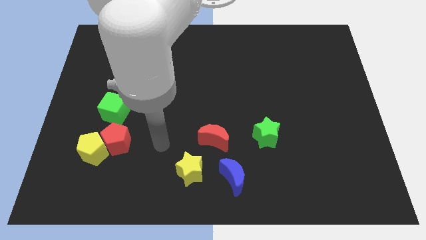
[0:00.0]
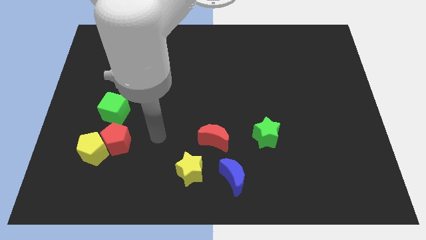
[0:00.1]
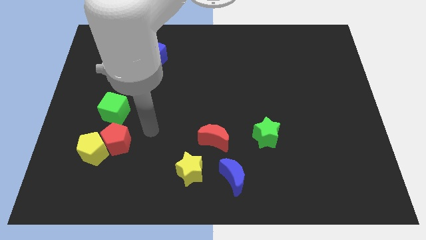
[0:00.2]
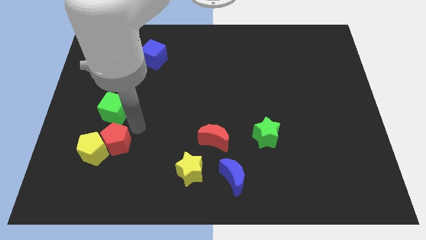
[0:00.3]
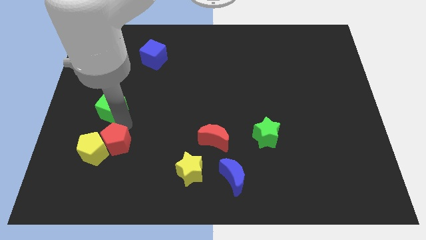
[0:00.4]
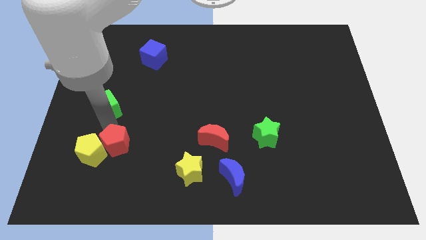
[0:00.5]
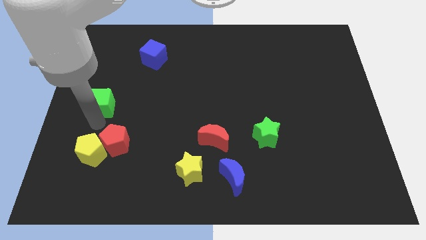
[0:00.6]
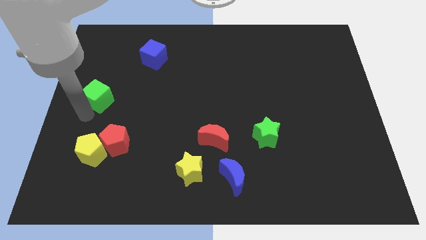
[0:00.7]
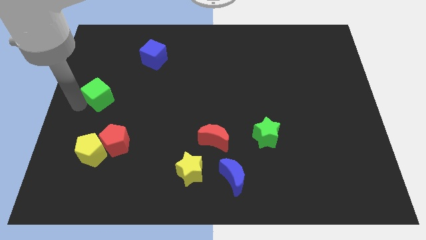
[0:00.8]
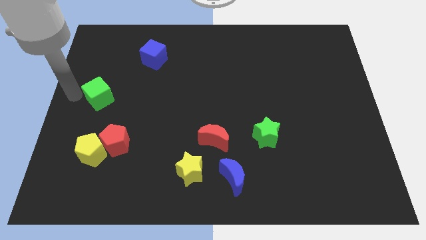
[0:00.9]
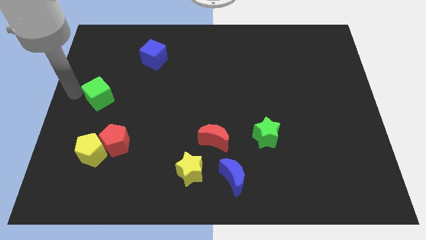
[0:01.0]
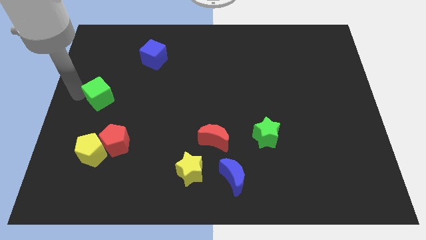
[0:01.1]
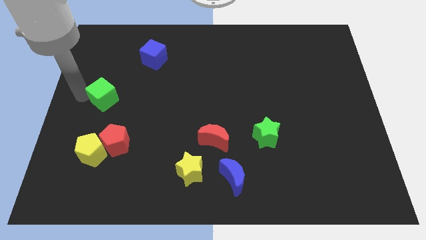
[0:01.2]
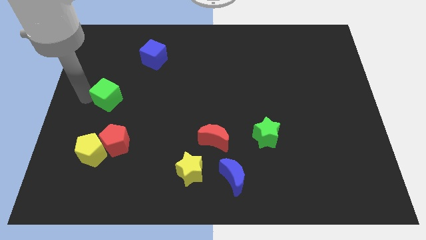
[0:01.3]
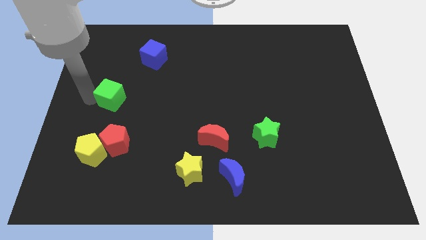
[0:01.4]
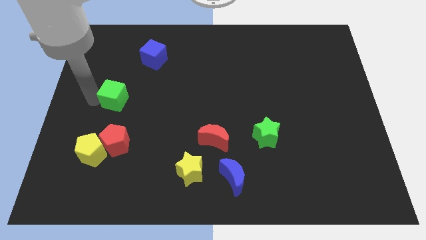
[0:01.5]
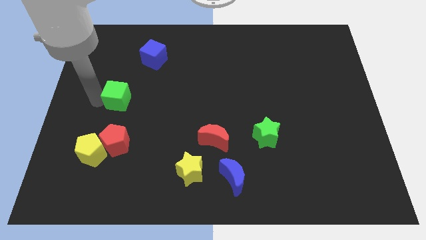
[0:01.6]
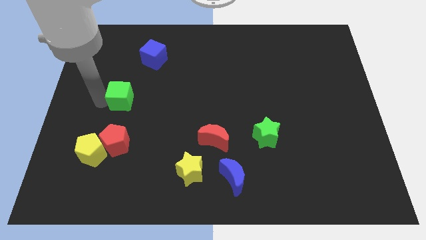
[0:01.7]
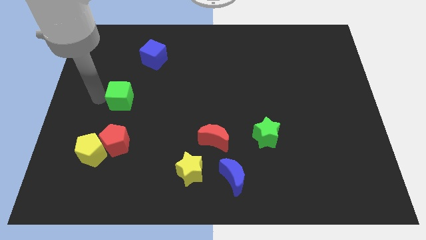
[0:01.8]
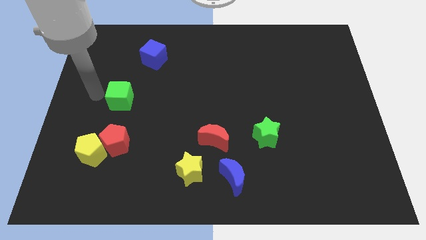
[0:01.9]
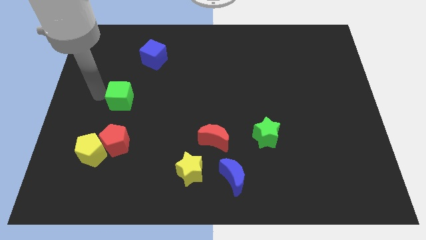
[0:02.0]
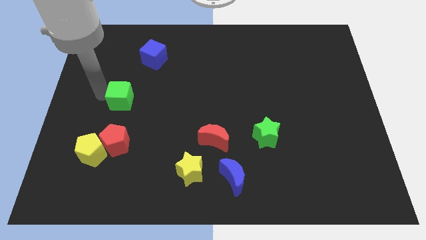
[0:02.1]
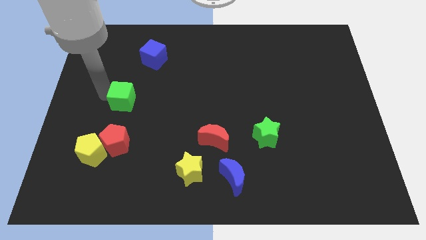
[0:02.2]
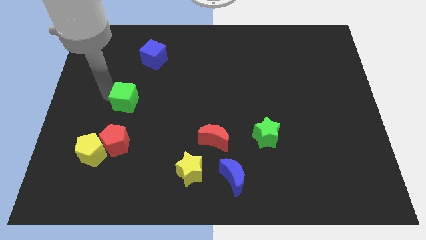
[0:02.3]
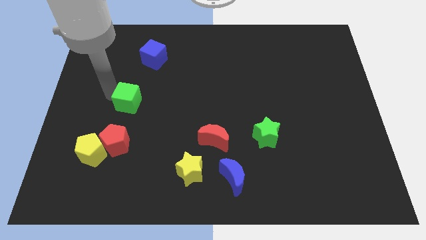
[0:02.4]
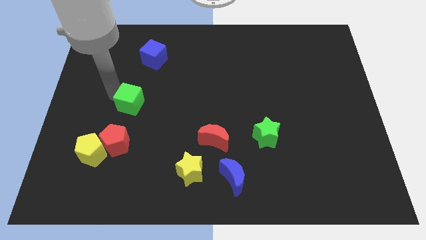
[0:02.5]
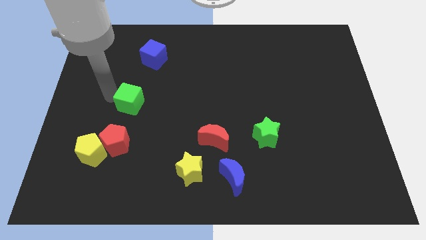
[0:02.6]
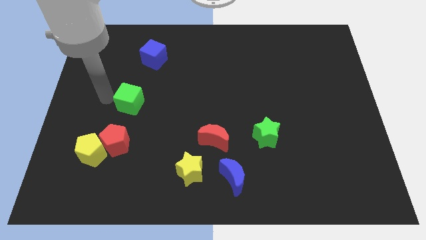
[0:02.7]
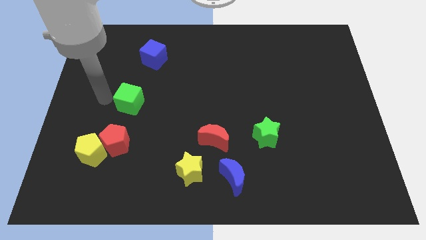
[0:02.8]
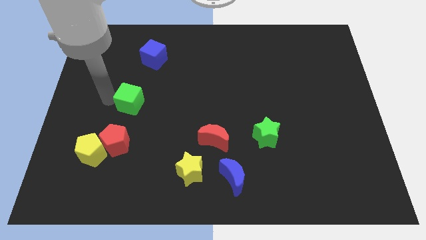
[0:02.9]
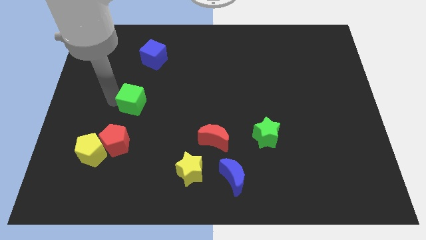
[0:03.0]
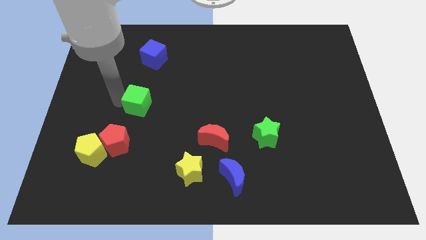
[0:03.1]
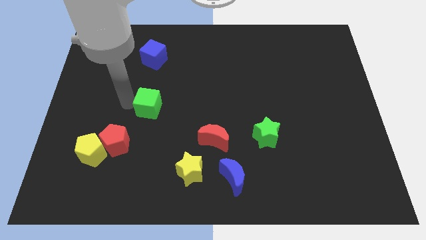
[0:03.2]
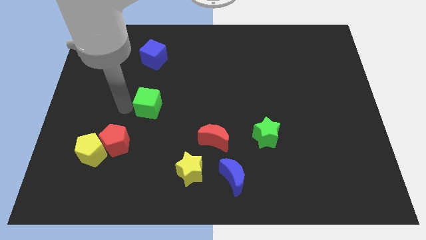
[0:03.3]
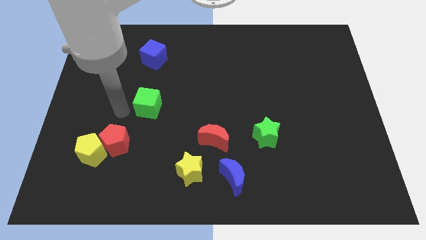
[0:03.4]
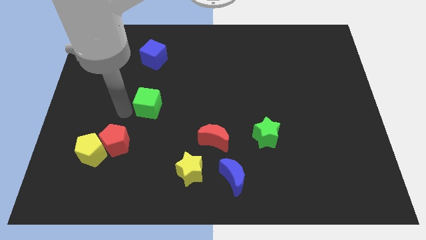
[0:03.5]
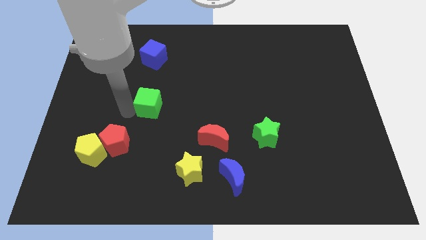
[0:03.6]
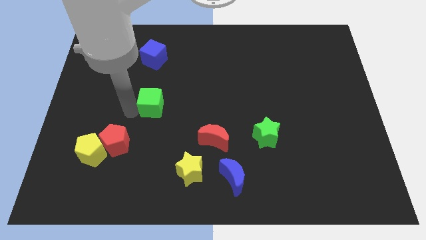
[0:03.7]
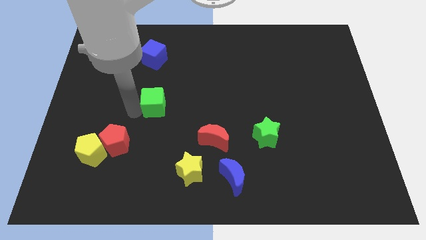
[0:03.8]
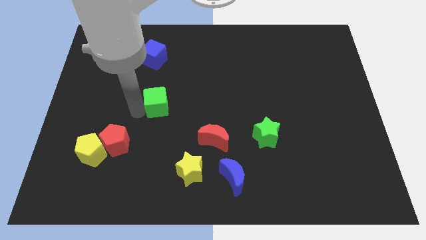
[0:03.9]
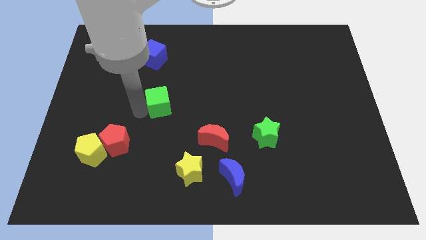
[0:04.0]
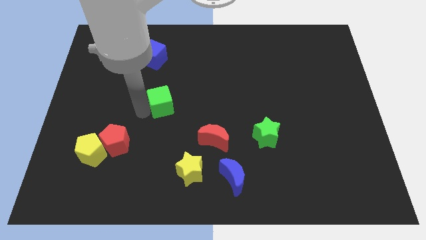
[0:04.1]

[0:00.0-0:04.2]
put the green cube to the middle

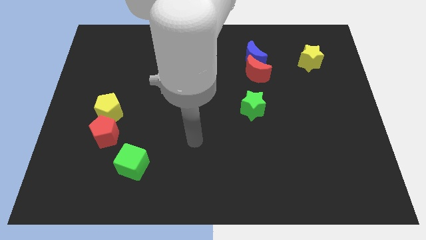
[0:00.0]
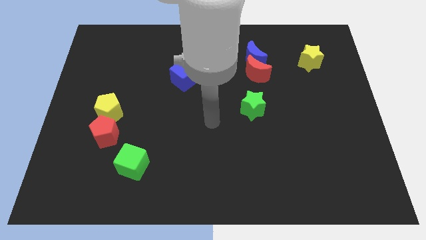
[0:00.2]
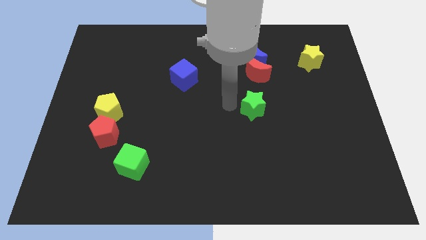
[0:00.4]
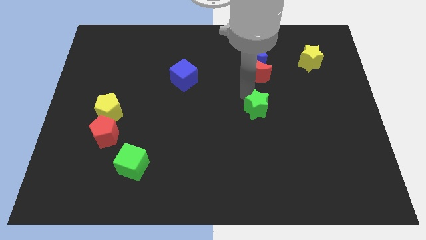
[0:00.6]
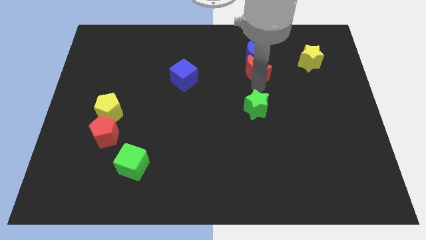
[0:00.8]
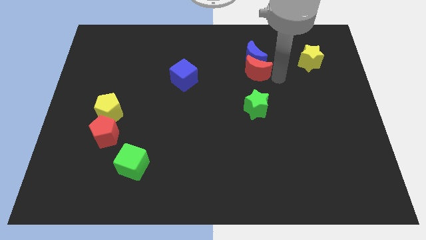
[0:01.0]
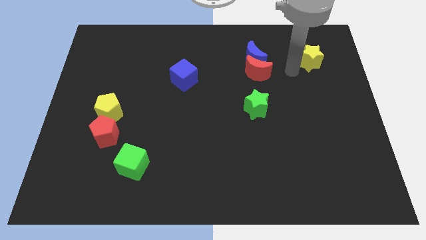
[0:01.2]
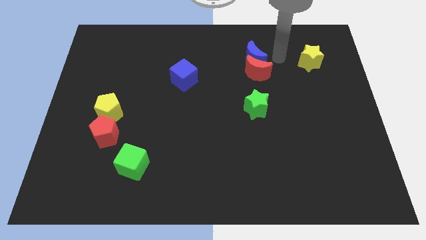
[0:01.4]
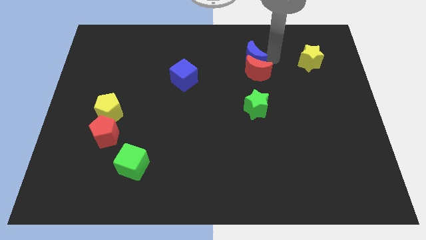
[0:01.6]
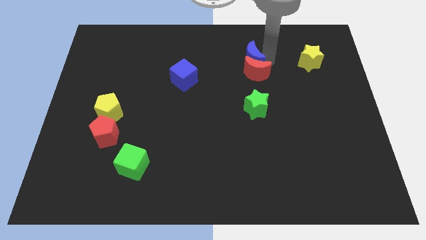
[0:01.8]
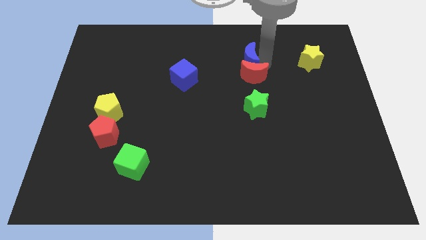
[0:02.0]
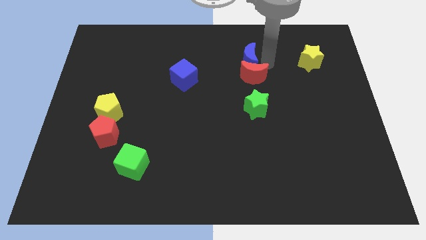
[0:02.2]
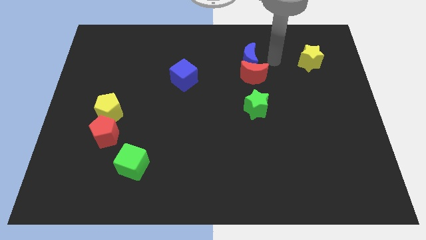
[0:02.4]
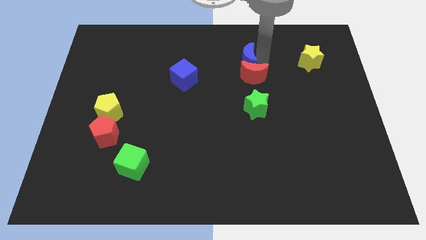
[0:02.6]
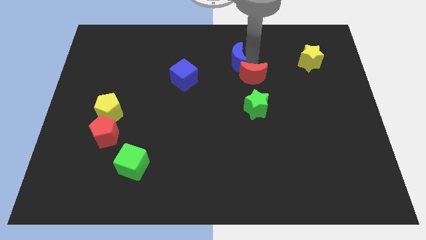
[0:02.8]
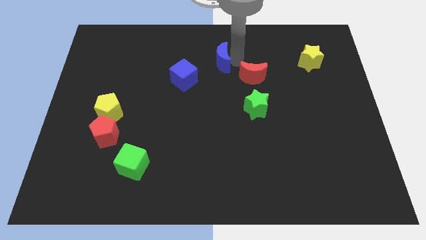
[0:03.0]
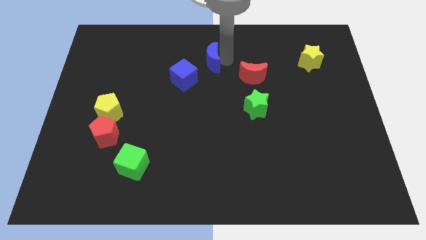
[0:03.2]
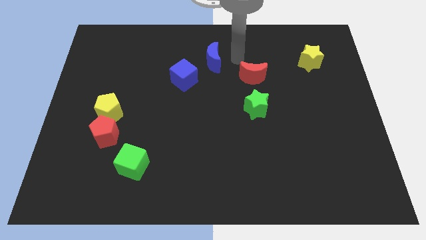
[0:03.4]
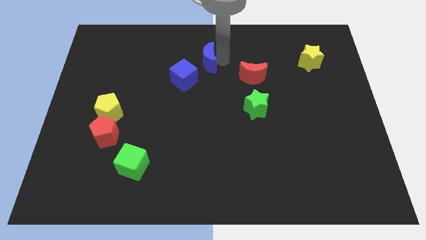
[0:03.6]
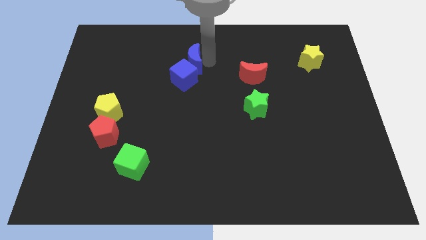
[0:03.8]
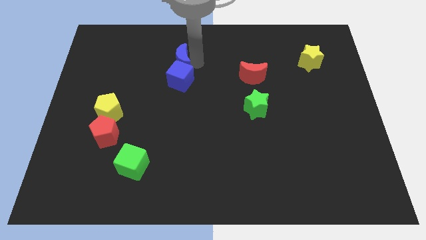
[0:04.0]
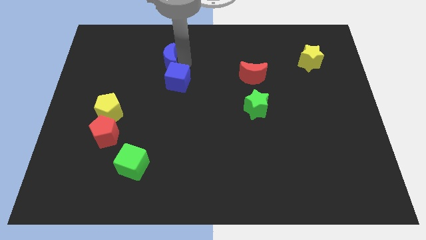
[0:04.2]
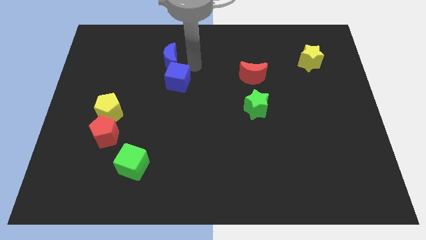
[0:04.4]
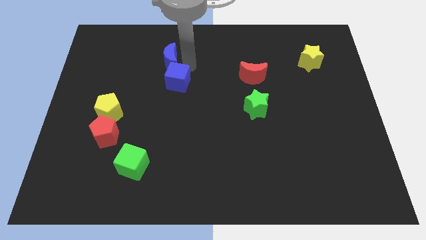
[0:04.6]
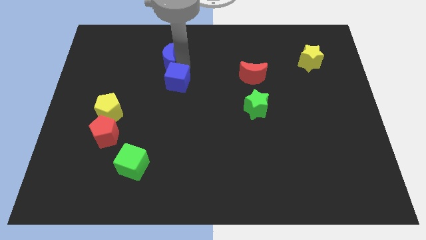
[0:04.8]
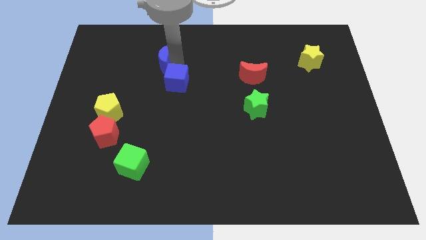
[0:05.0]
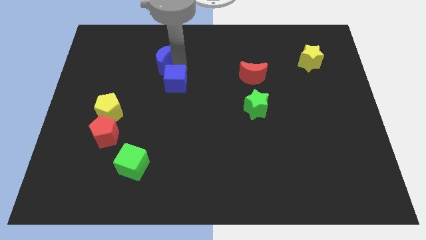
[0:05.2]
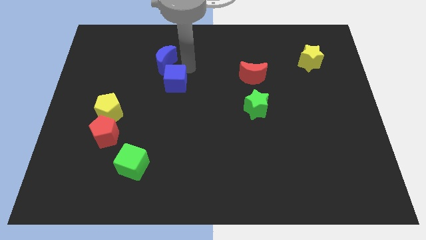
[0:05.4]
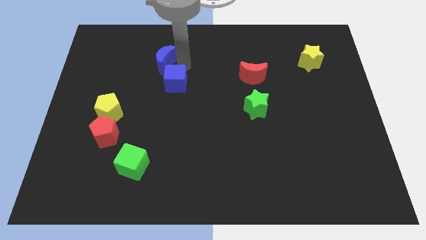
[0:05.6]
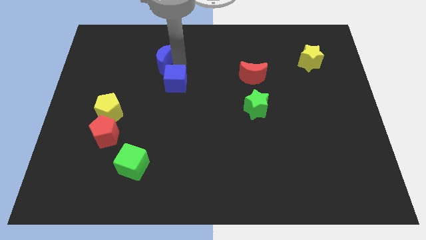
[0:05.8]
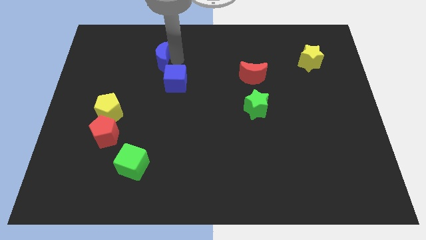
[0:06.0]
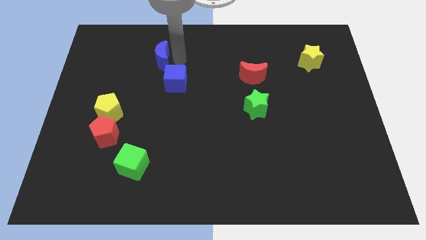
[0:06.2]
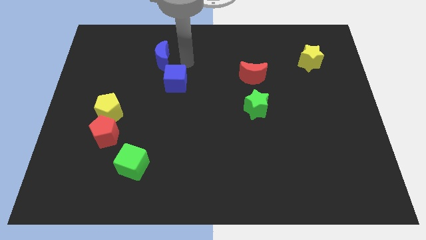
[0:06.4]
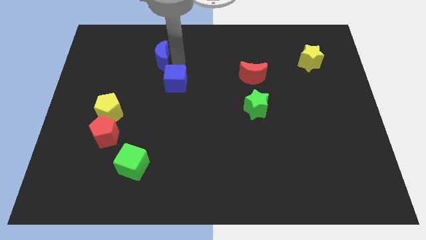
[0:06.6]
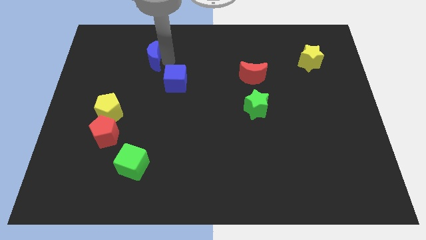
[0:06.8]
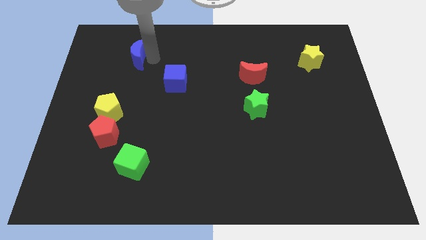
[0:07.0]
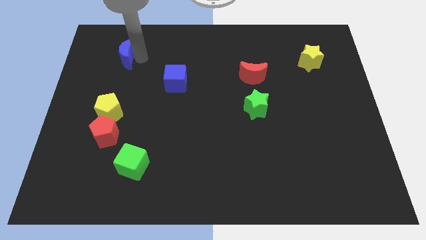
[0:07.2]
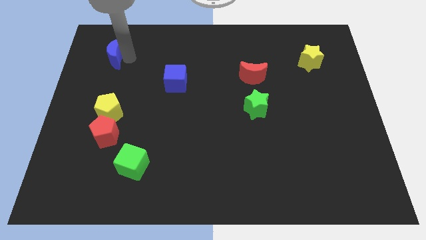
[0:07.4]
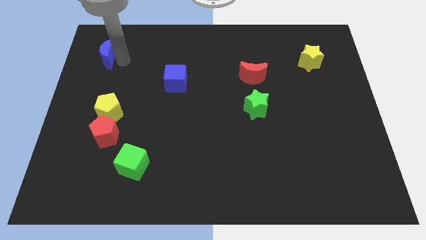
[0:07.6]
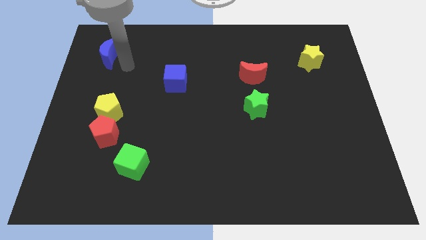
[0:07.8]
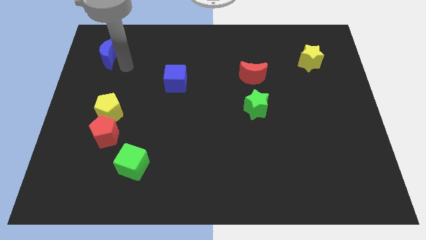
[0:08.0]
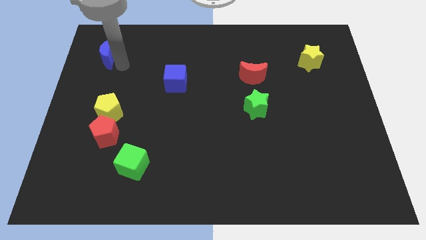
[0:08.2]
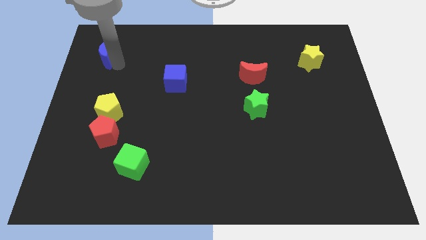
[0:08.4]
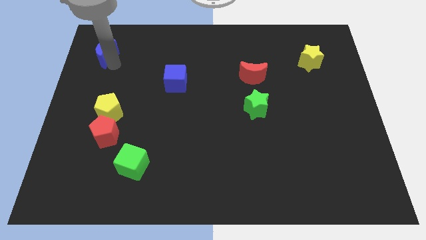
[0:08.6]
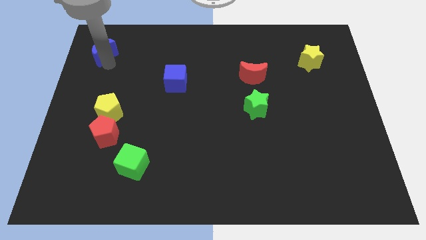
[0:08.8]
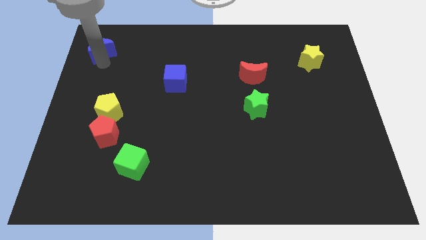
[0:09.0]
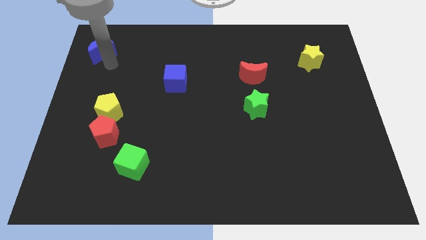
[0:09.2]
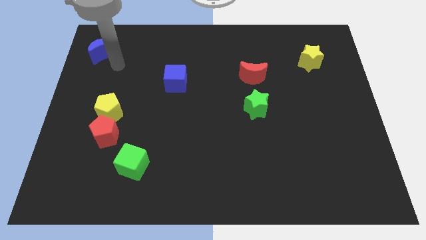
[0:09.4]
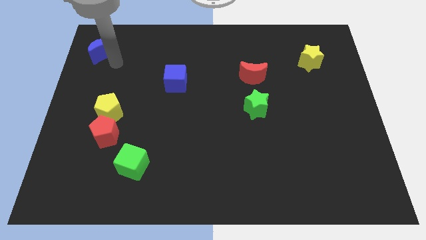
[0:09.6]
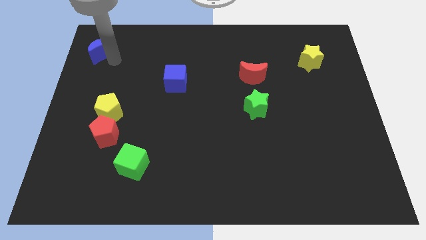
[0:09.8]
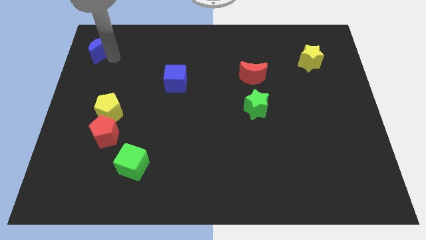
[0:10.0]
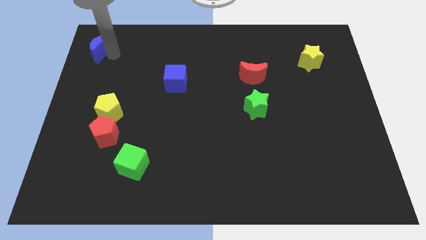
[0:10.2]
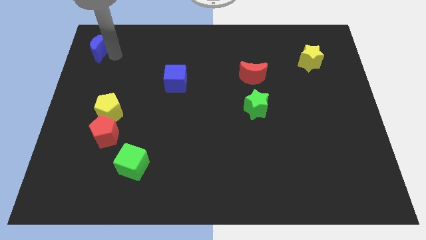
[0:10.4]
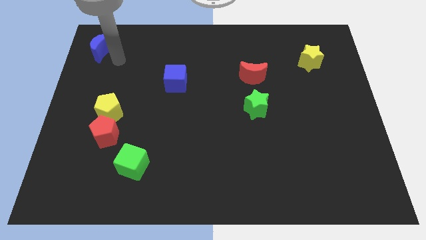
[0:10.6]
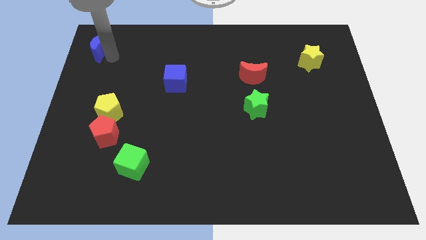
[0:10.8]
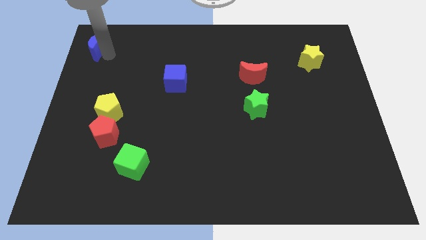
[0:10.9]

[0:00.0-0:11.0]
put the blue moon to the top left corner
